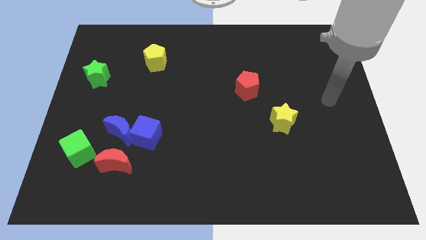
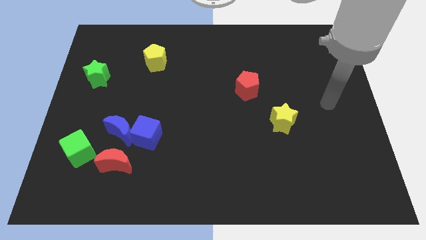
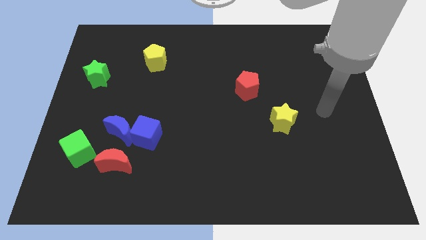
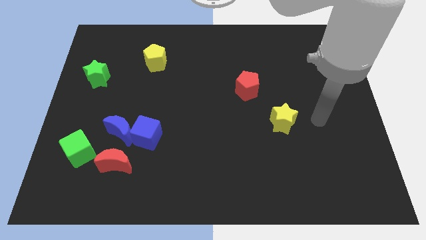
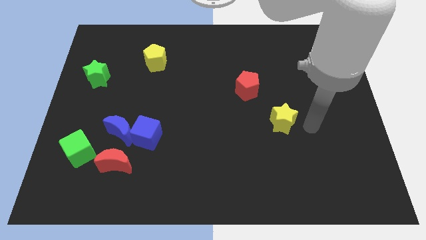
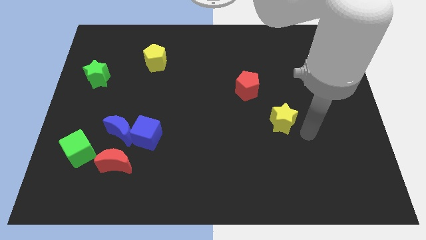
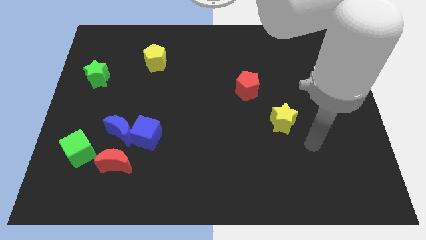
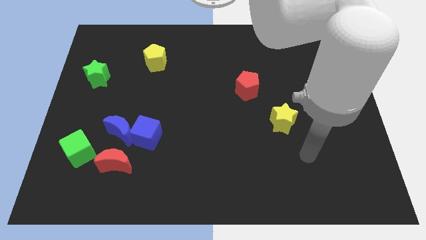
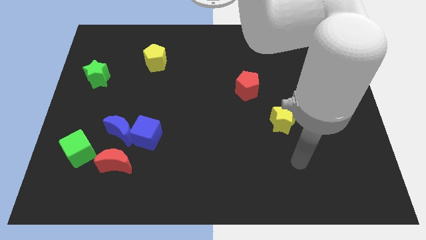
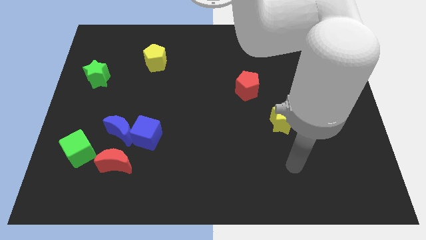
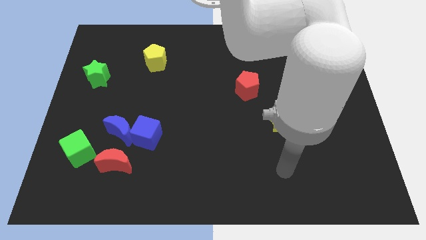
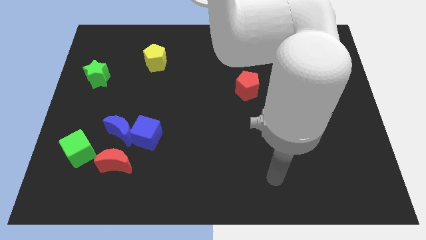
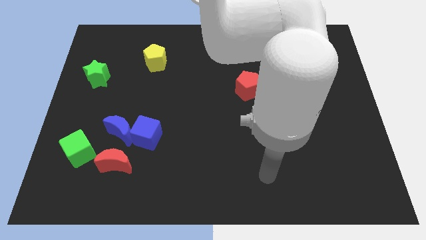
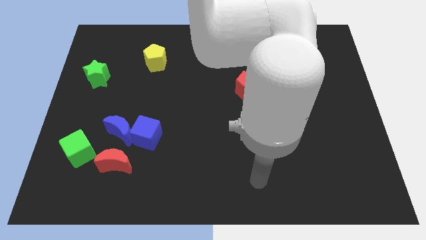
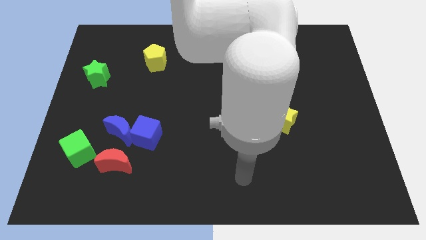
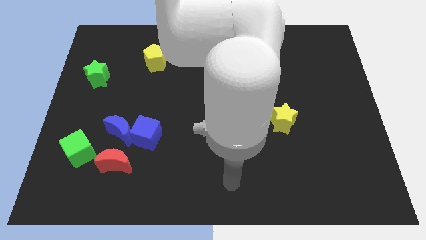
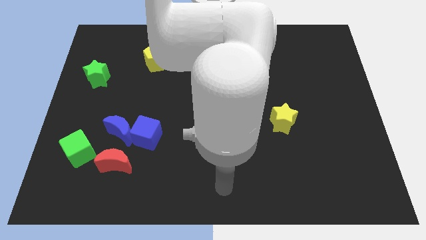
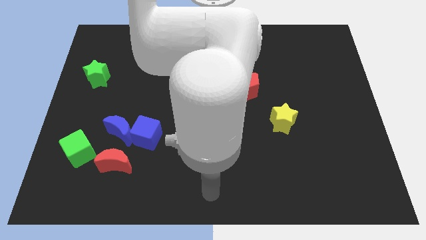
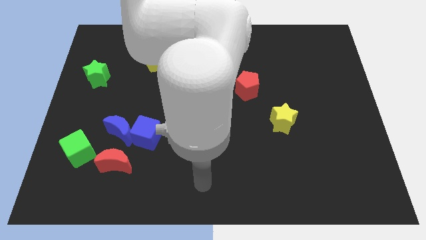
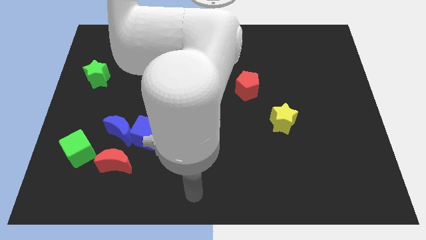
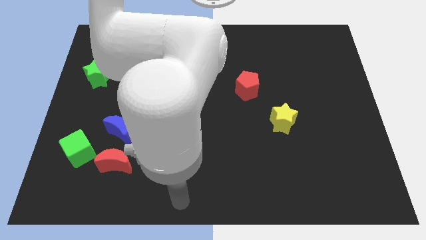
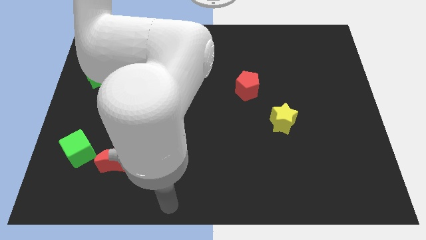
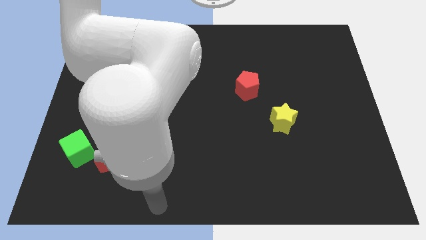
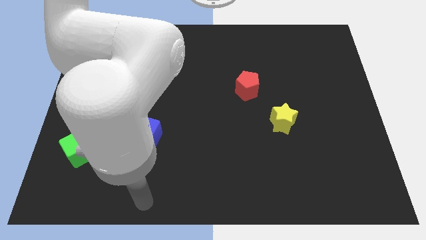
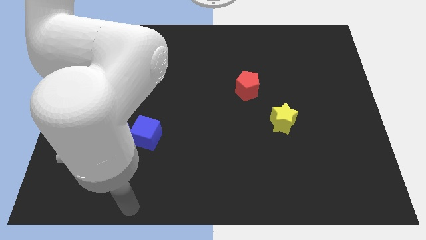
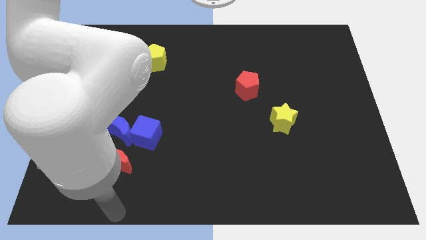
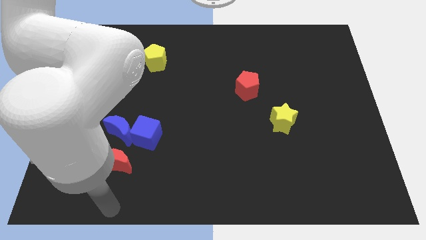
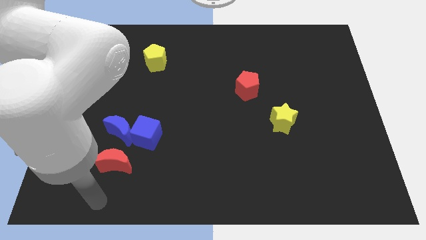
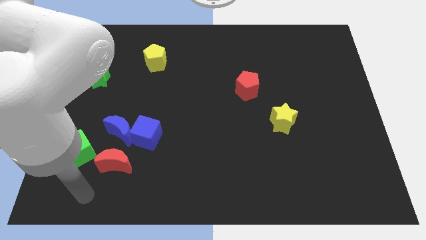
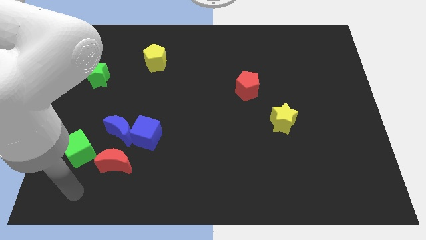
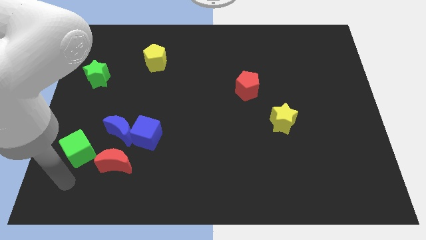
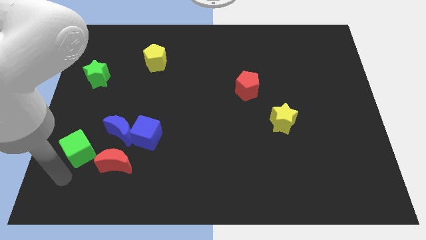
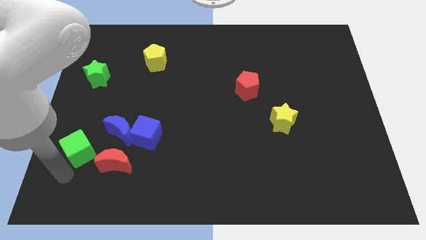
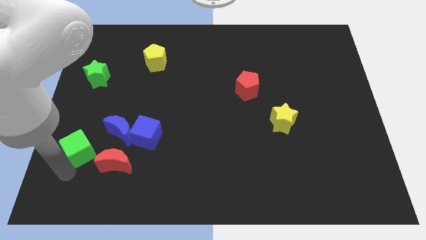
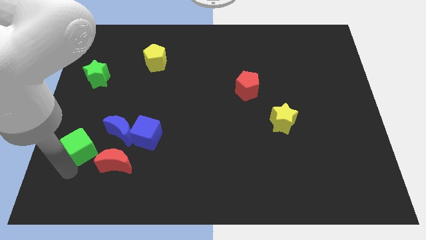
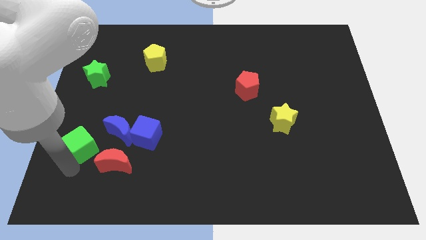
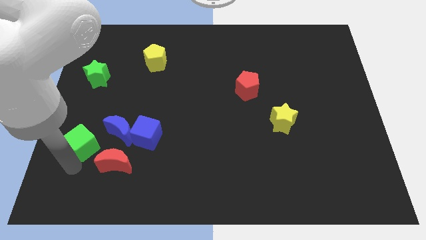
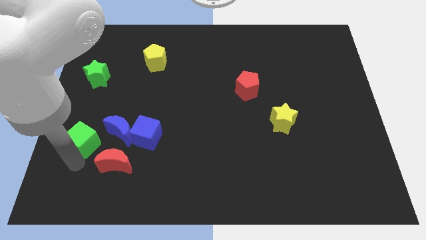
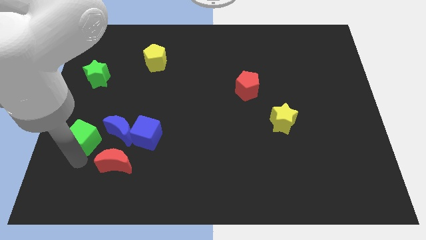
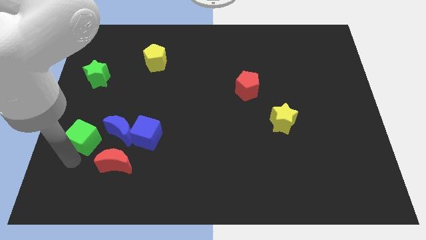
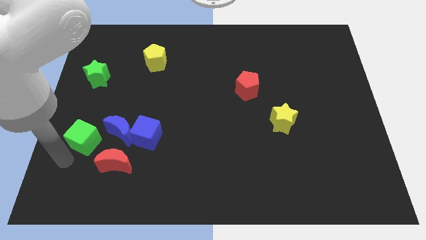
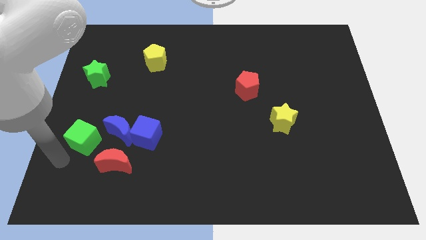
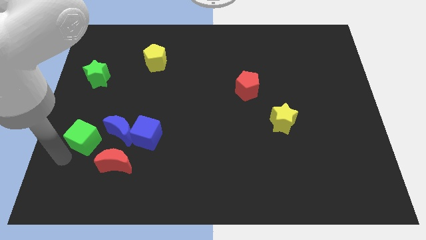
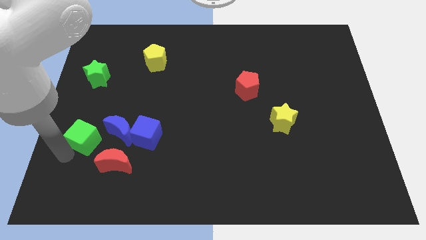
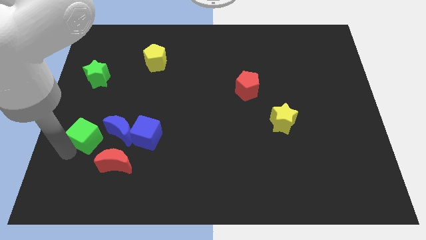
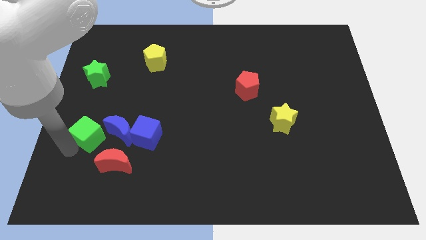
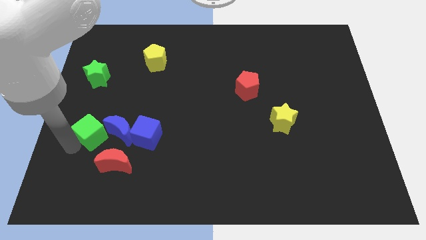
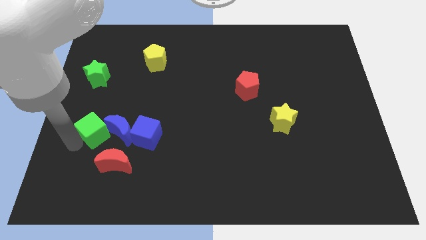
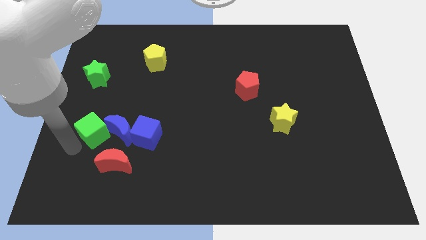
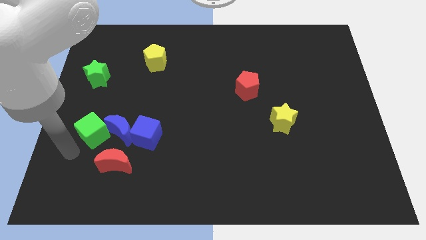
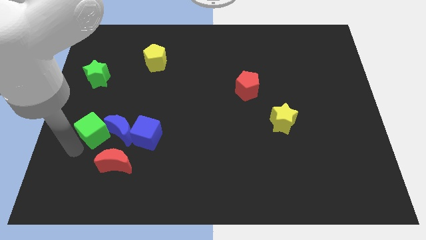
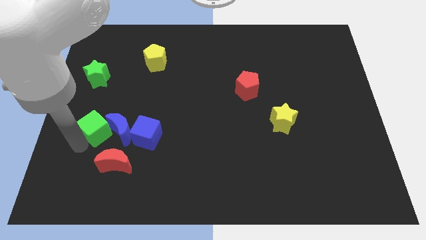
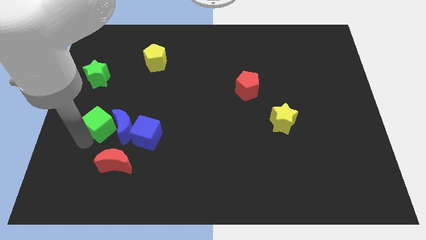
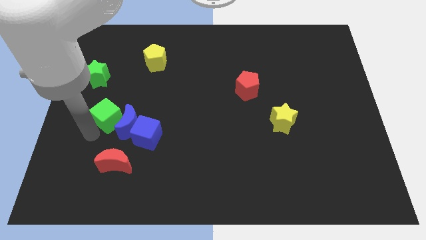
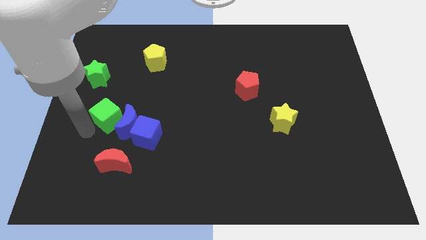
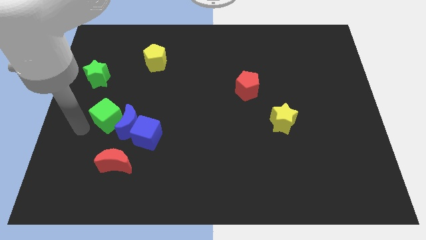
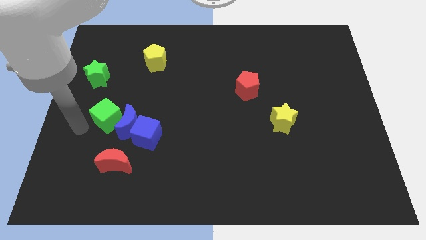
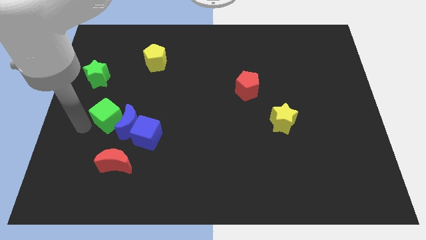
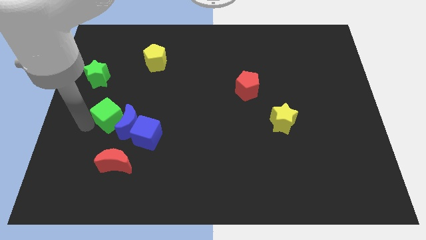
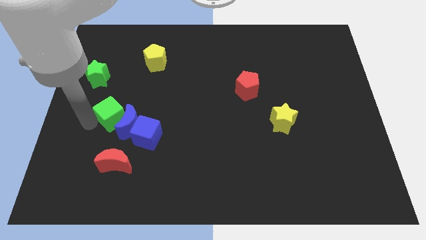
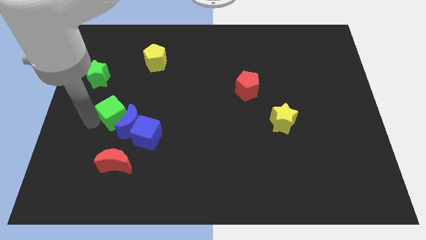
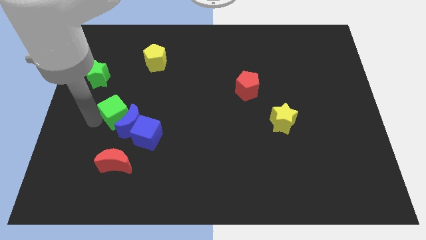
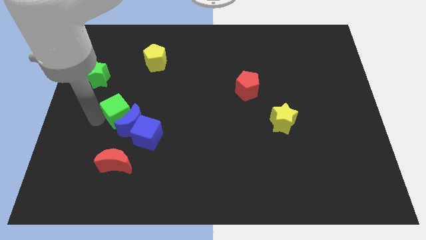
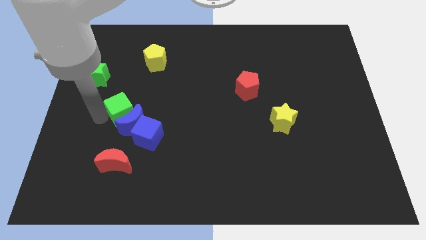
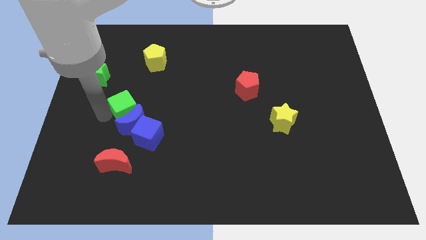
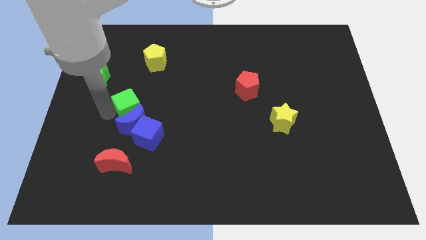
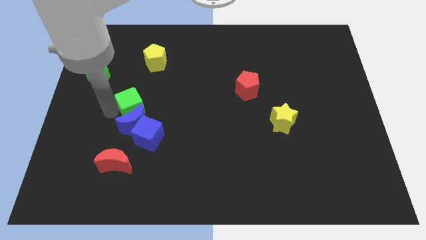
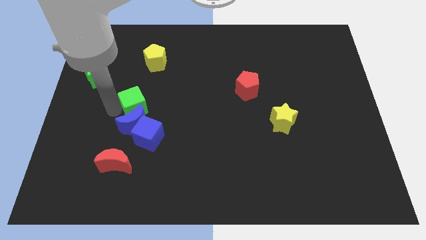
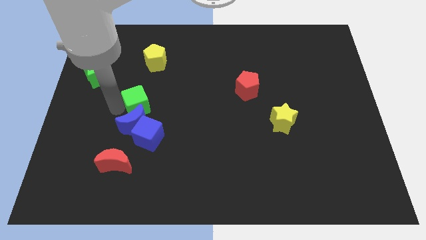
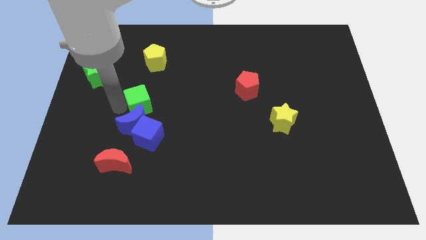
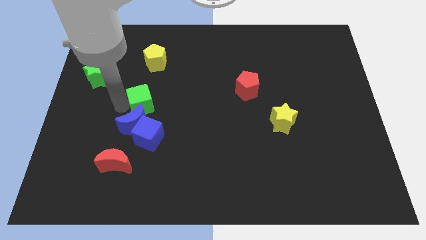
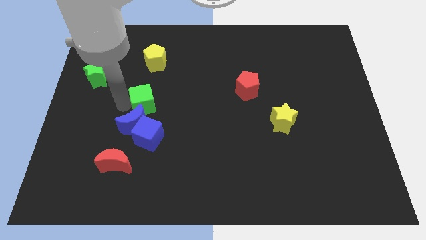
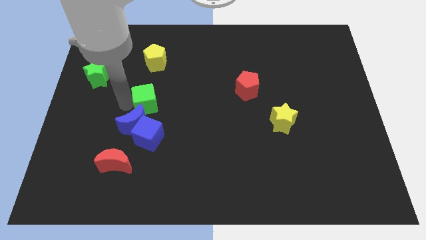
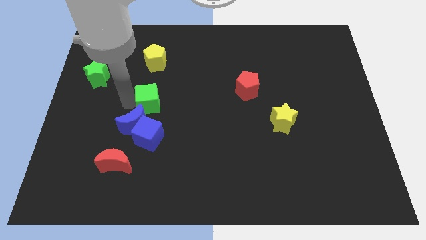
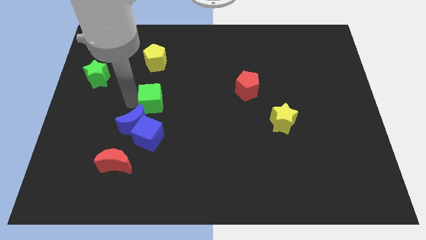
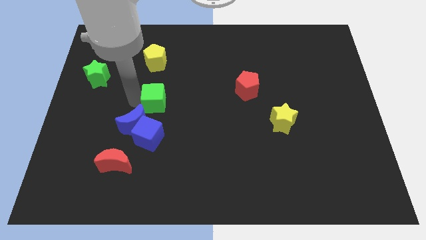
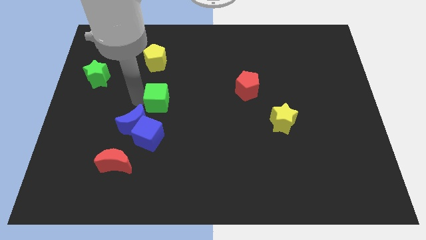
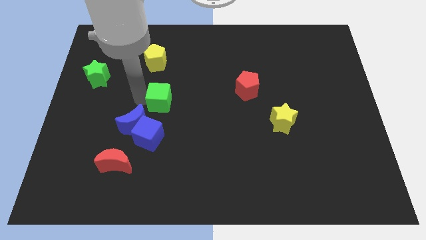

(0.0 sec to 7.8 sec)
slide the green cube to the middle of the board
